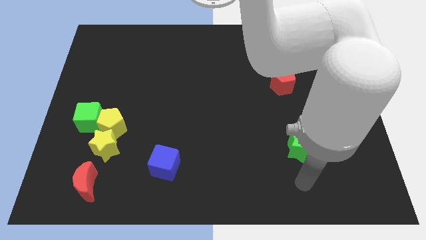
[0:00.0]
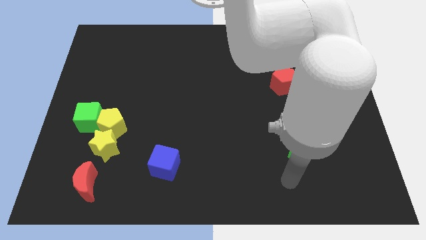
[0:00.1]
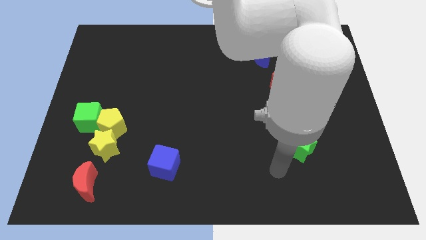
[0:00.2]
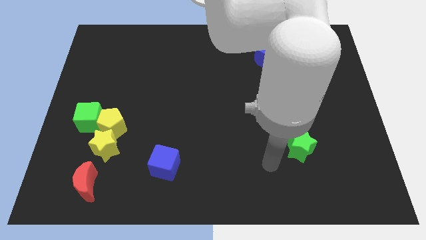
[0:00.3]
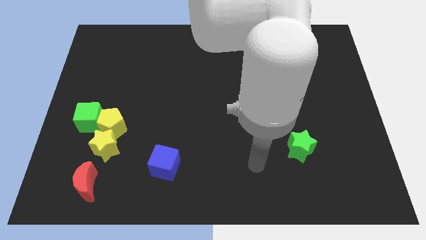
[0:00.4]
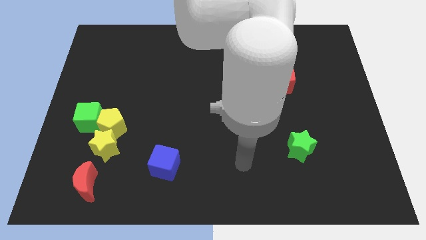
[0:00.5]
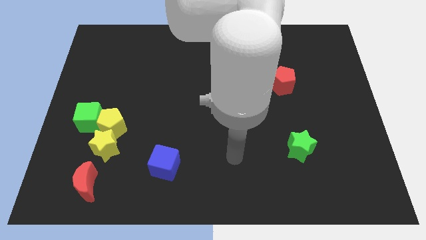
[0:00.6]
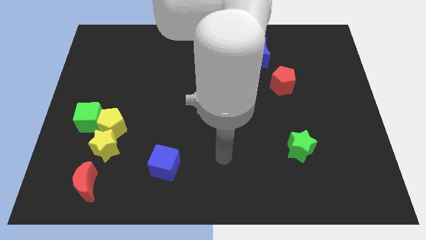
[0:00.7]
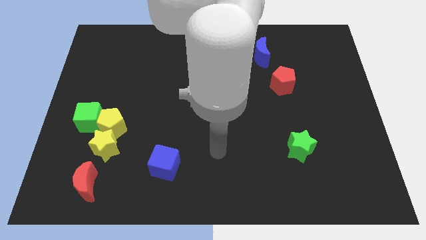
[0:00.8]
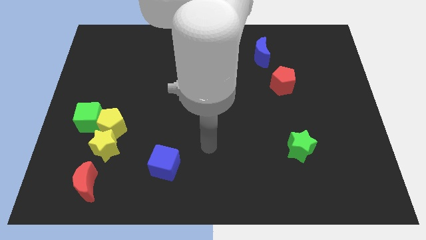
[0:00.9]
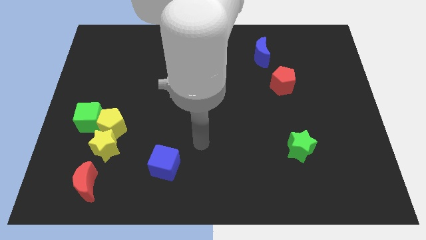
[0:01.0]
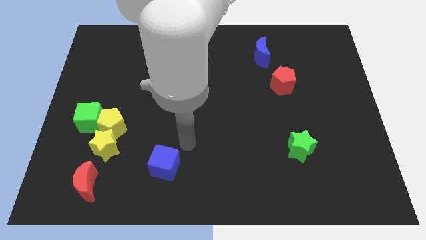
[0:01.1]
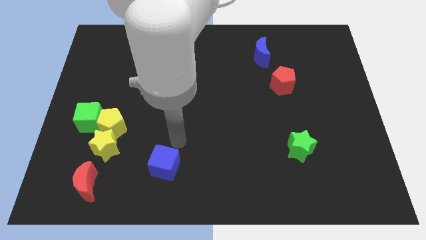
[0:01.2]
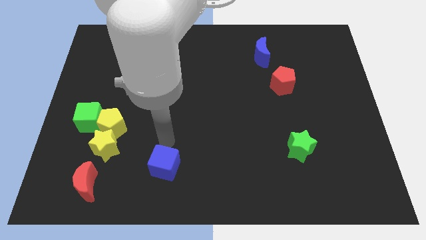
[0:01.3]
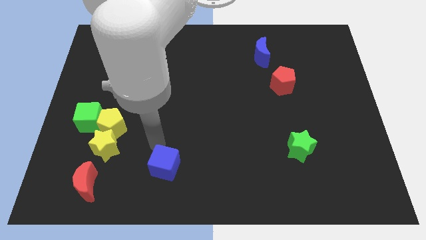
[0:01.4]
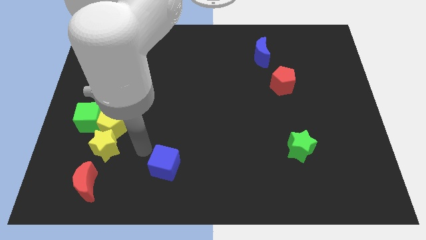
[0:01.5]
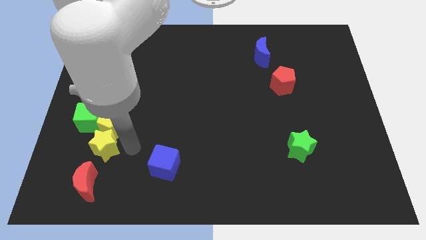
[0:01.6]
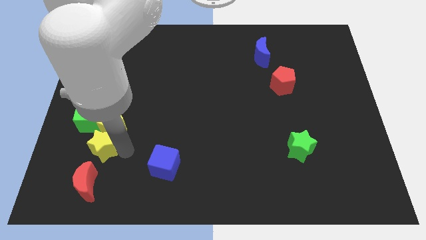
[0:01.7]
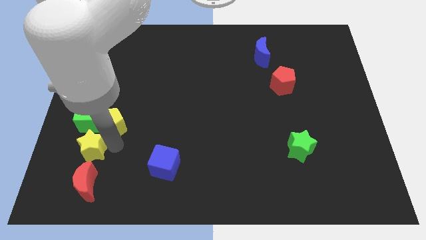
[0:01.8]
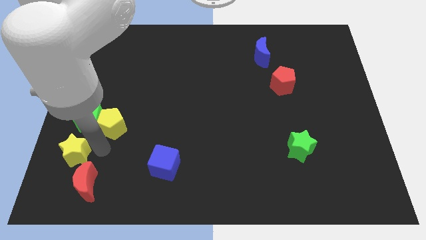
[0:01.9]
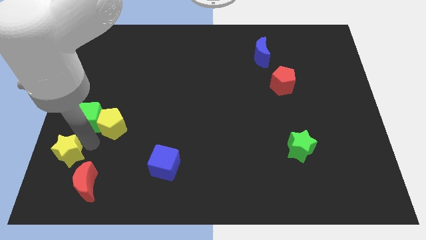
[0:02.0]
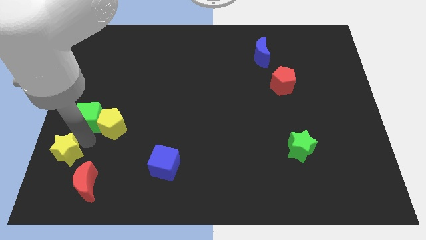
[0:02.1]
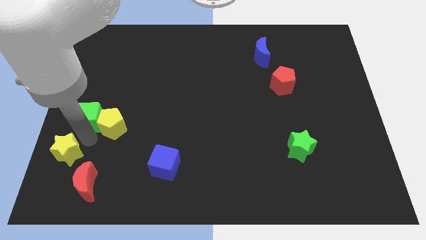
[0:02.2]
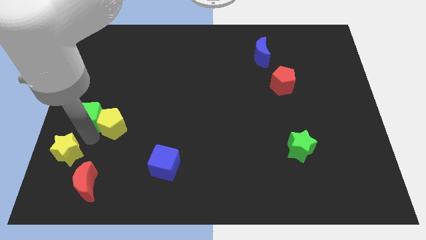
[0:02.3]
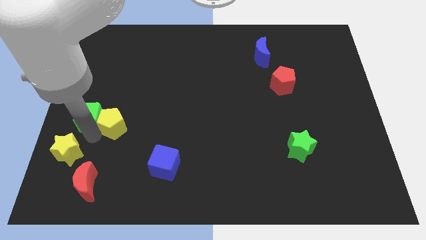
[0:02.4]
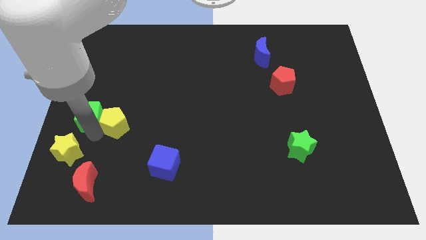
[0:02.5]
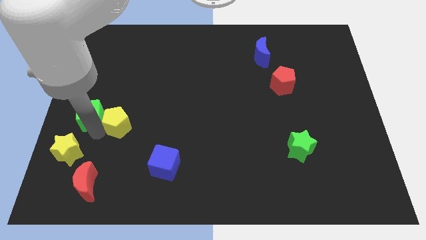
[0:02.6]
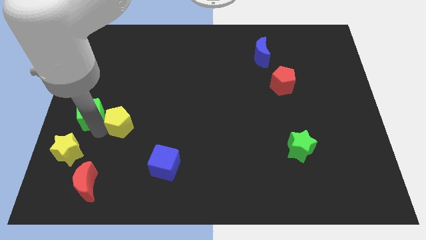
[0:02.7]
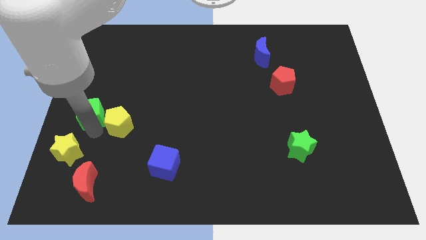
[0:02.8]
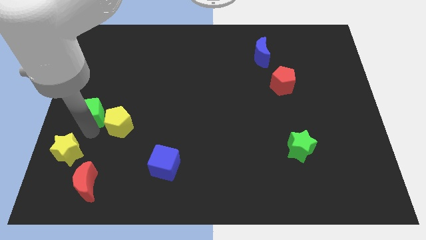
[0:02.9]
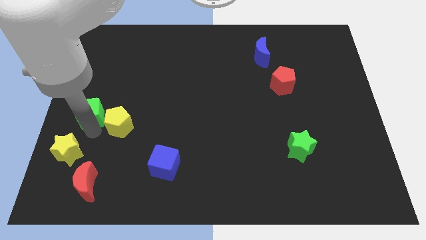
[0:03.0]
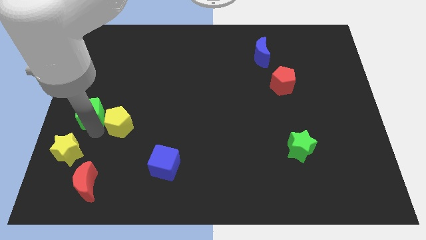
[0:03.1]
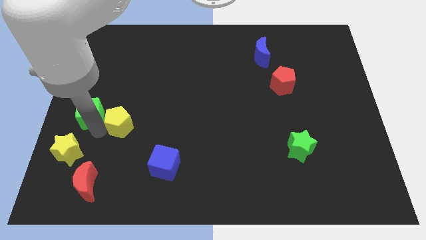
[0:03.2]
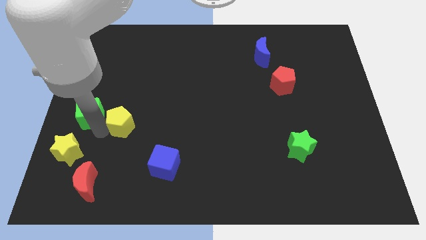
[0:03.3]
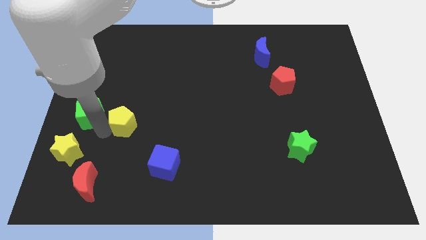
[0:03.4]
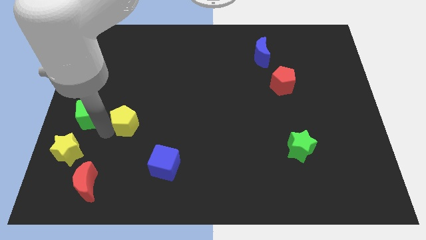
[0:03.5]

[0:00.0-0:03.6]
pull the yellow pentagon apart from the yellow star and green cube

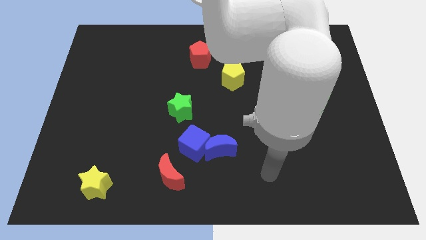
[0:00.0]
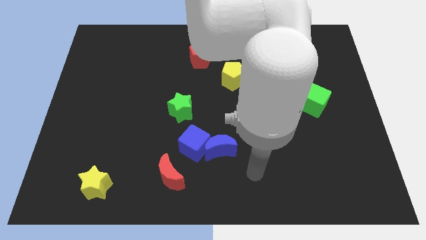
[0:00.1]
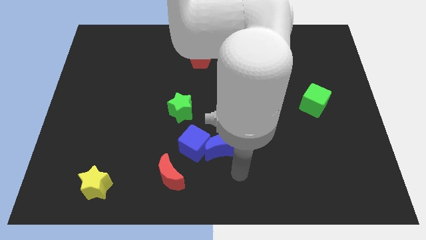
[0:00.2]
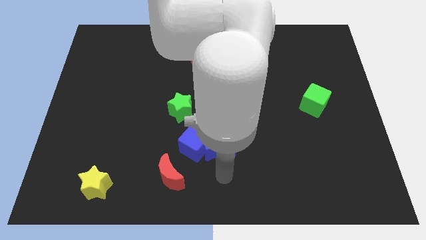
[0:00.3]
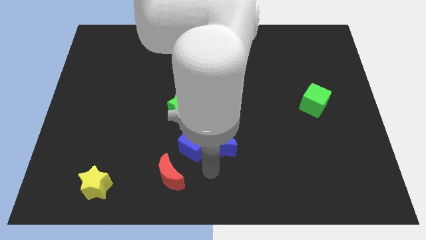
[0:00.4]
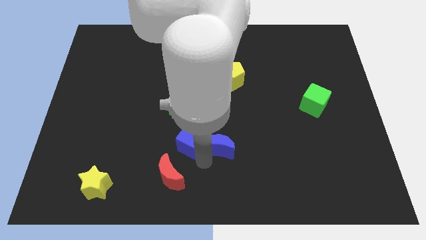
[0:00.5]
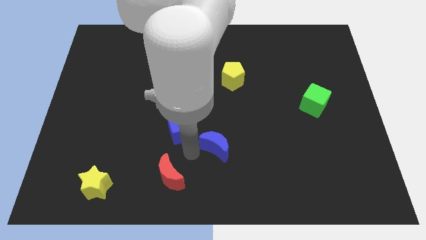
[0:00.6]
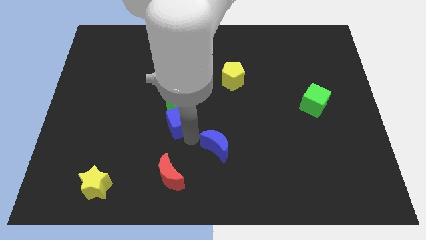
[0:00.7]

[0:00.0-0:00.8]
separate the blue moon from the blue cube

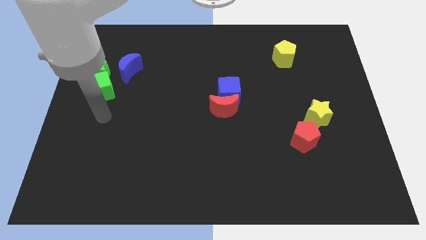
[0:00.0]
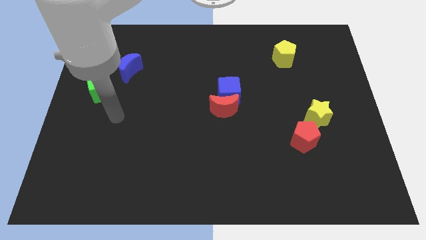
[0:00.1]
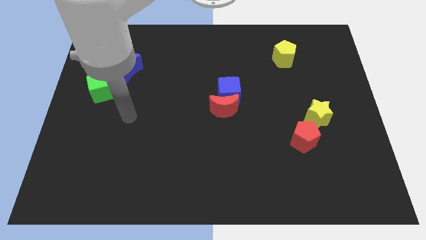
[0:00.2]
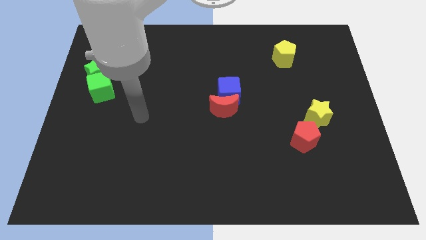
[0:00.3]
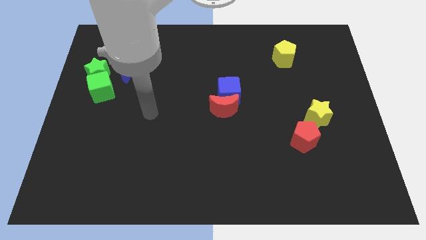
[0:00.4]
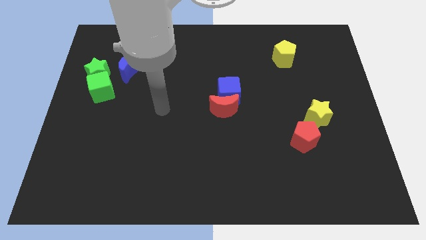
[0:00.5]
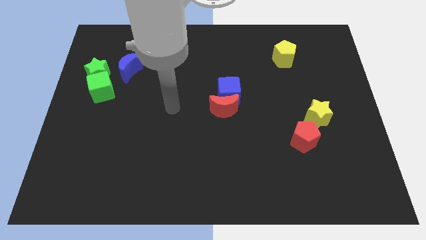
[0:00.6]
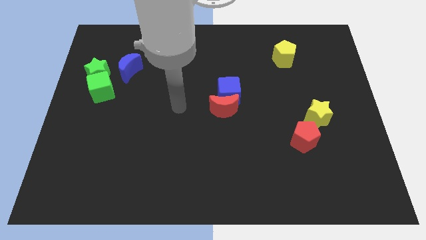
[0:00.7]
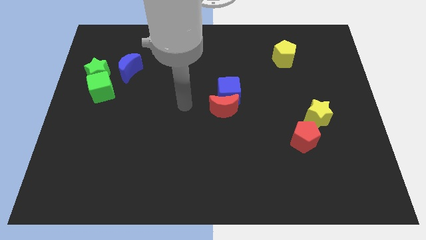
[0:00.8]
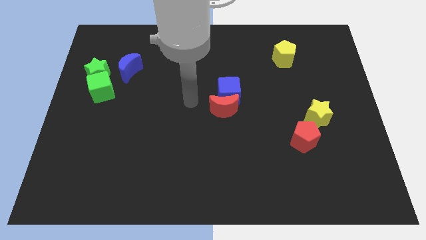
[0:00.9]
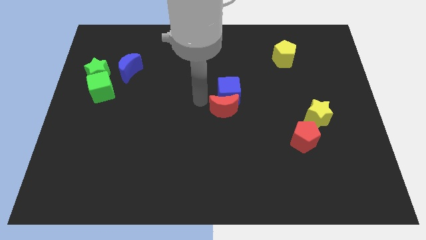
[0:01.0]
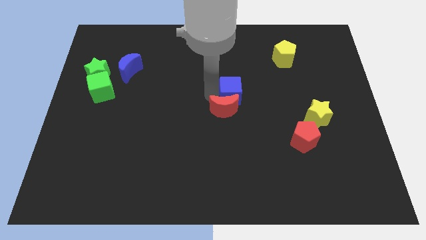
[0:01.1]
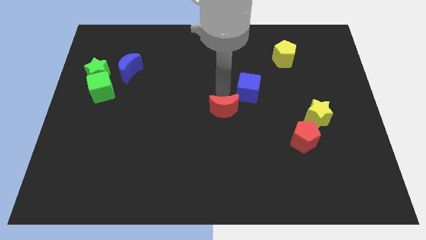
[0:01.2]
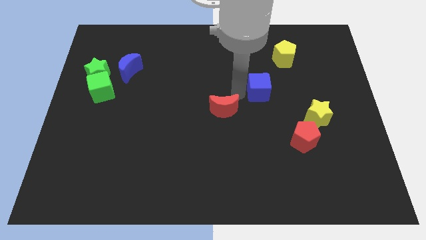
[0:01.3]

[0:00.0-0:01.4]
pull the red moon apart from the blue cube

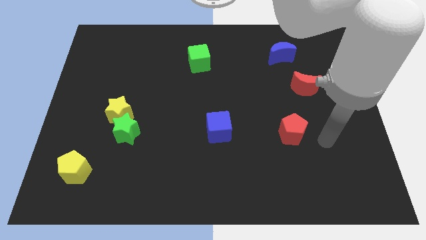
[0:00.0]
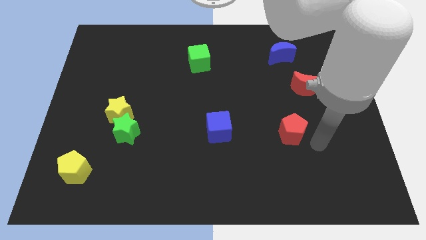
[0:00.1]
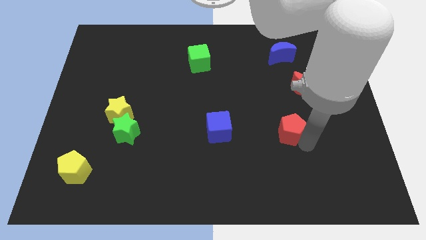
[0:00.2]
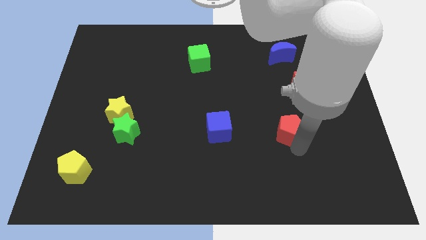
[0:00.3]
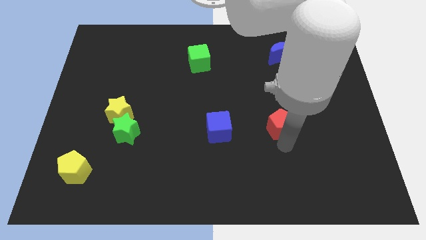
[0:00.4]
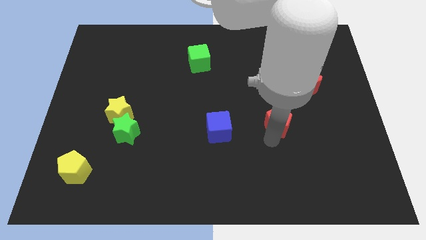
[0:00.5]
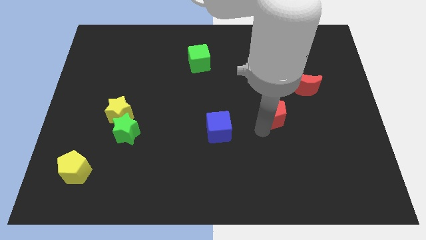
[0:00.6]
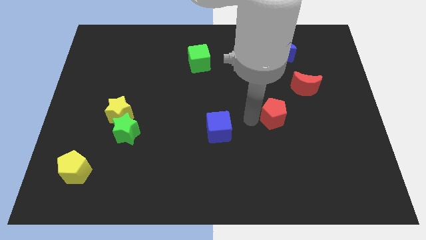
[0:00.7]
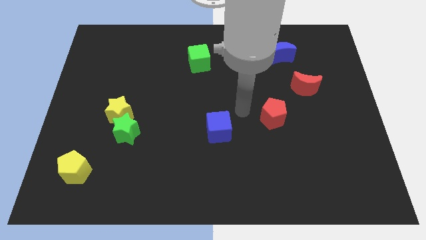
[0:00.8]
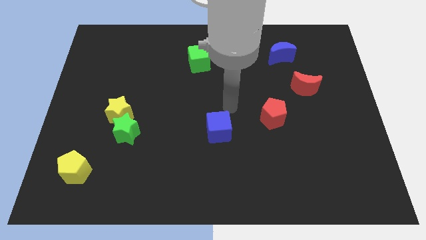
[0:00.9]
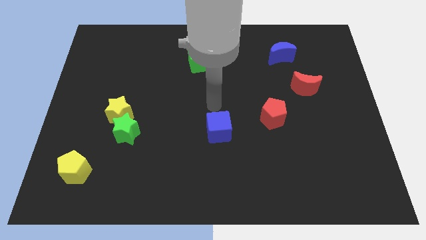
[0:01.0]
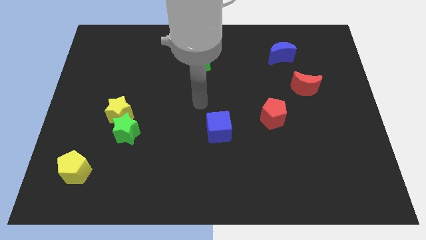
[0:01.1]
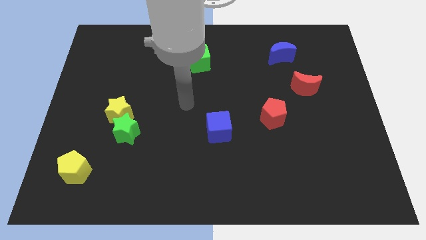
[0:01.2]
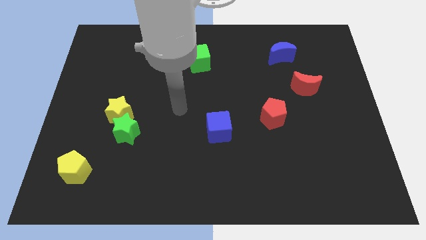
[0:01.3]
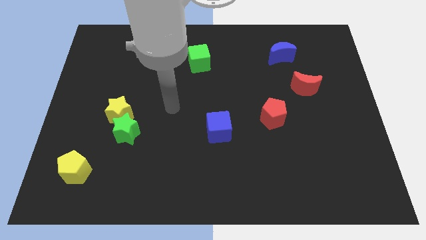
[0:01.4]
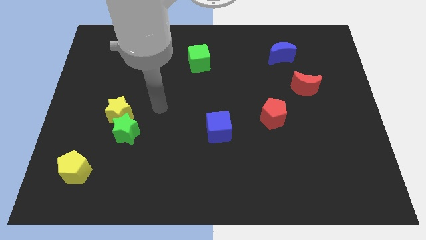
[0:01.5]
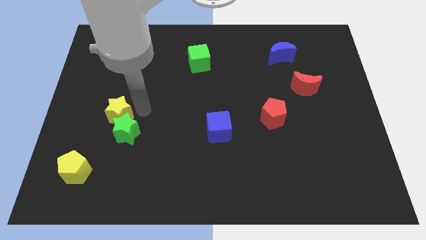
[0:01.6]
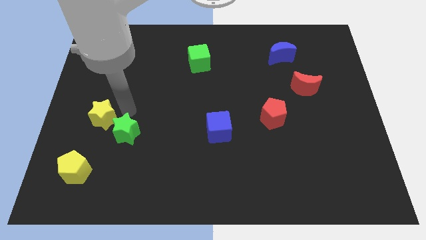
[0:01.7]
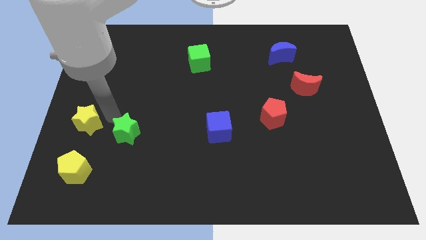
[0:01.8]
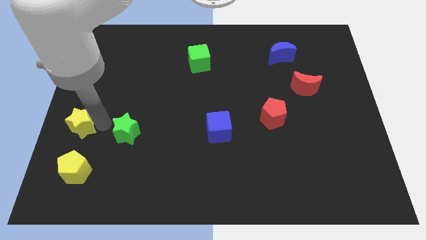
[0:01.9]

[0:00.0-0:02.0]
pull the green star apart from the yellow star

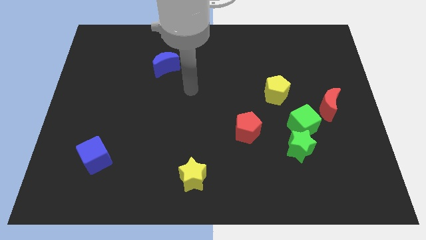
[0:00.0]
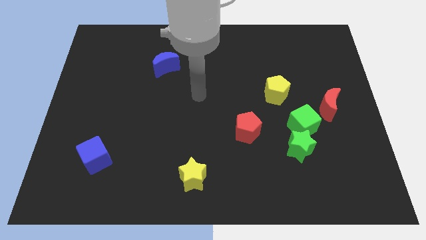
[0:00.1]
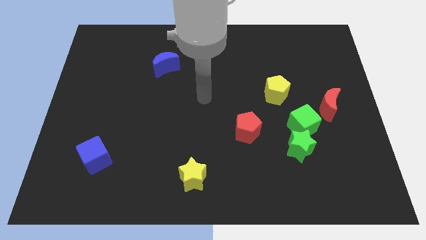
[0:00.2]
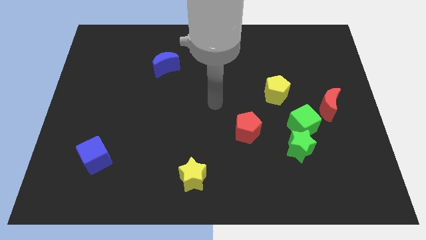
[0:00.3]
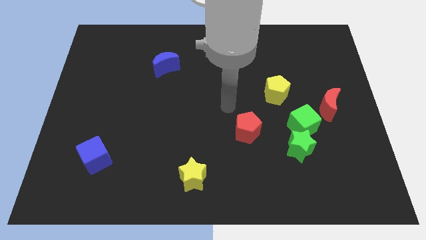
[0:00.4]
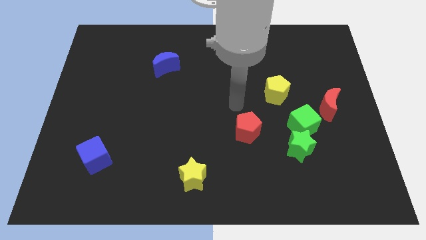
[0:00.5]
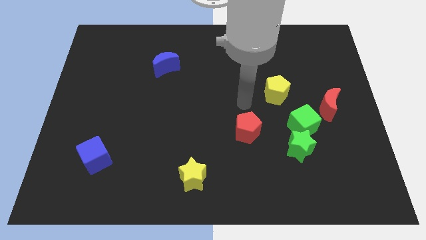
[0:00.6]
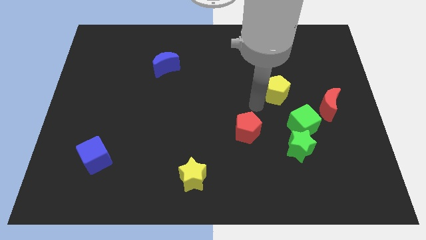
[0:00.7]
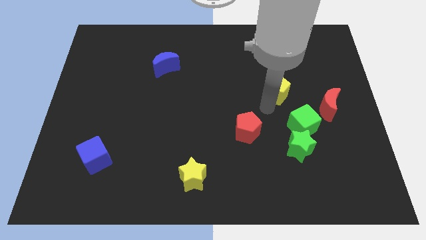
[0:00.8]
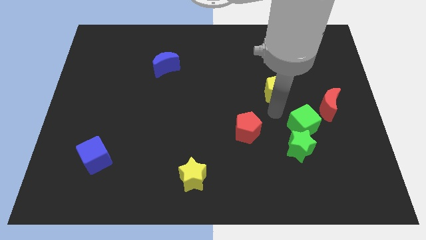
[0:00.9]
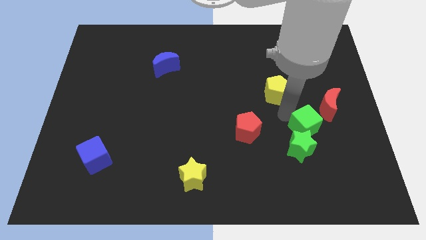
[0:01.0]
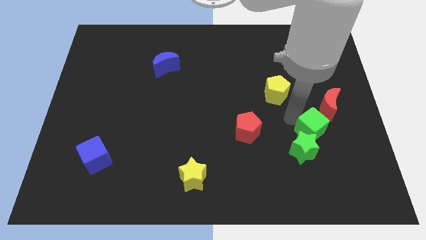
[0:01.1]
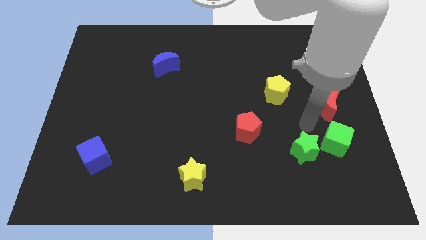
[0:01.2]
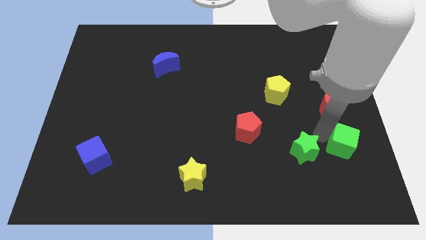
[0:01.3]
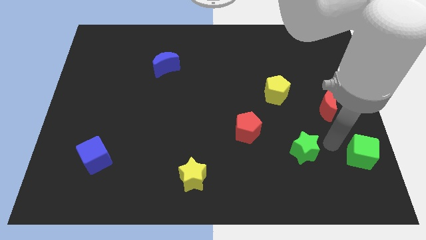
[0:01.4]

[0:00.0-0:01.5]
pull the green star apart from the green cube

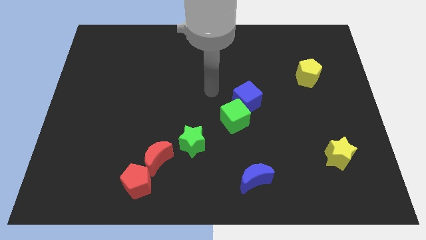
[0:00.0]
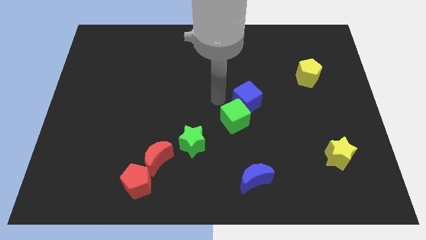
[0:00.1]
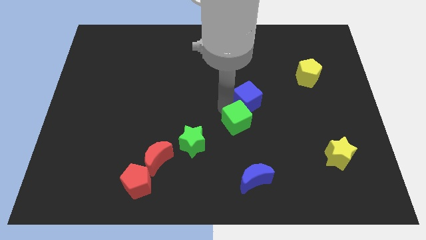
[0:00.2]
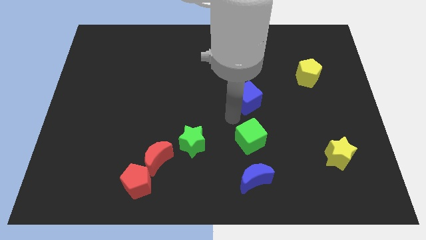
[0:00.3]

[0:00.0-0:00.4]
pull the blue cube apart from the green cube
